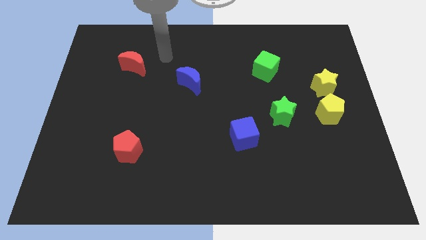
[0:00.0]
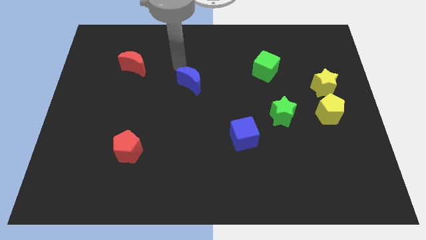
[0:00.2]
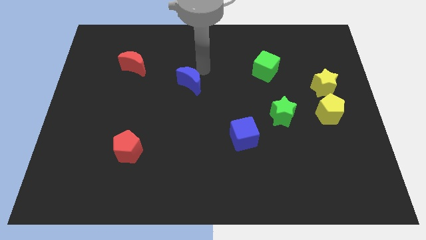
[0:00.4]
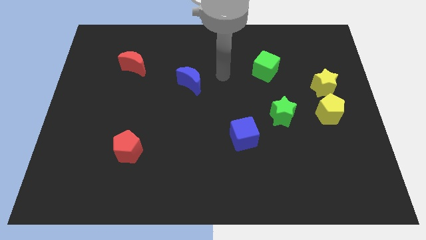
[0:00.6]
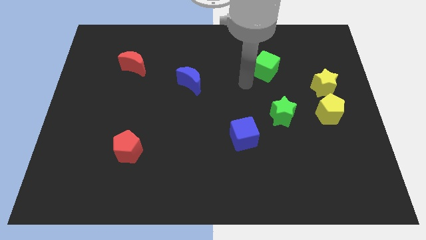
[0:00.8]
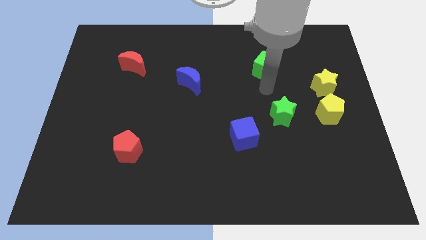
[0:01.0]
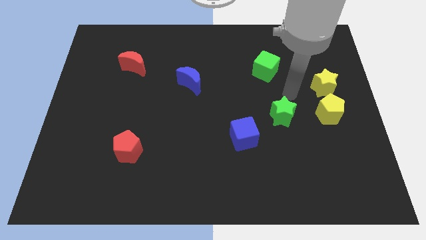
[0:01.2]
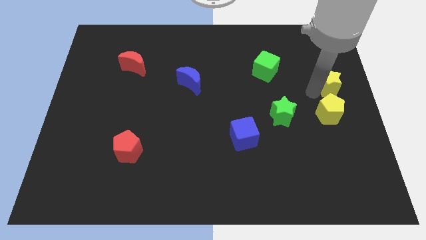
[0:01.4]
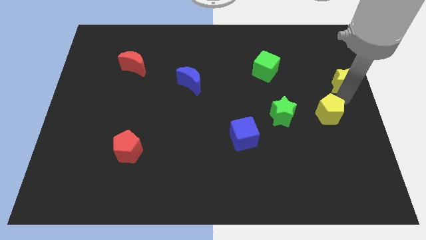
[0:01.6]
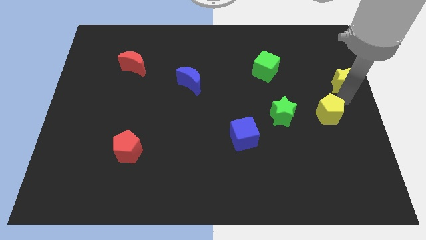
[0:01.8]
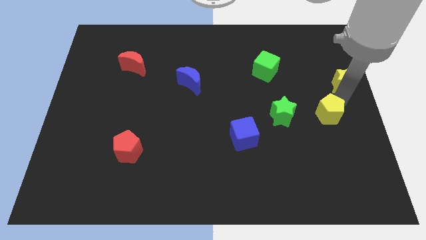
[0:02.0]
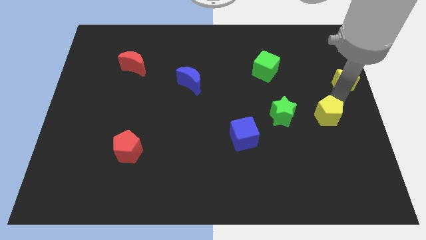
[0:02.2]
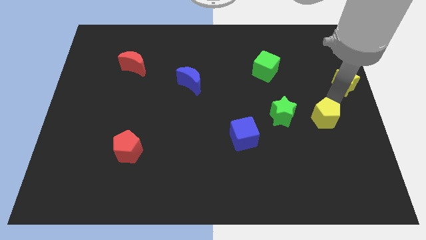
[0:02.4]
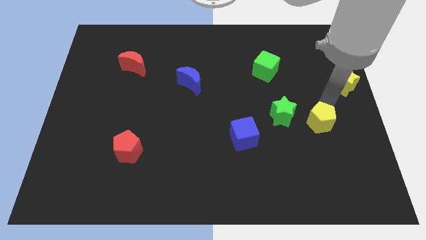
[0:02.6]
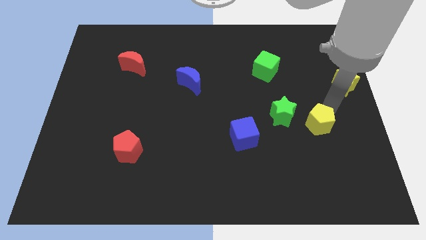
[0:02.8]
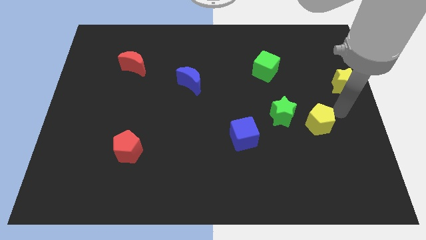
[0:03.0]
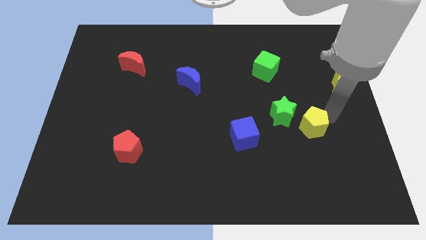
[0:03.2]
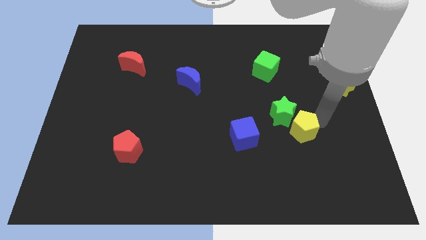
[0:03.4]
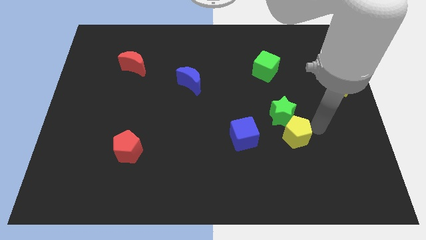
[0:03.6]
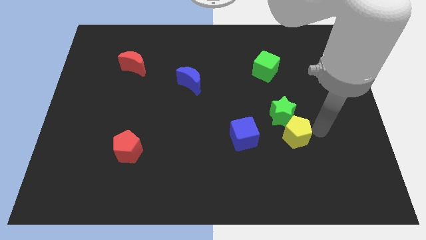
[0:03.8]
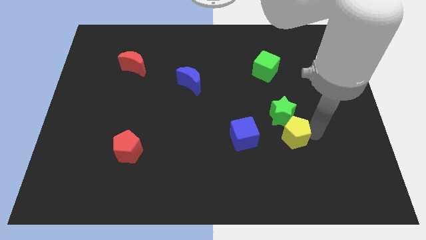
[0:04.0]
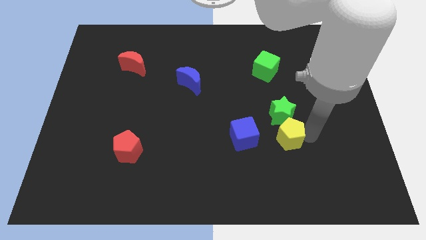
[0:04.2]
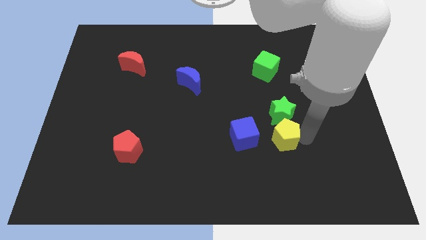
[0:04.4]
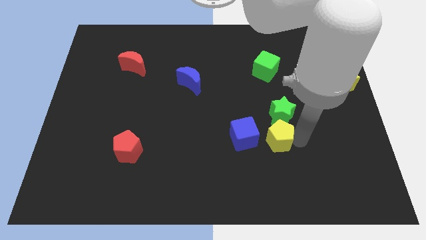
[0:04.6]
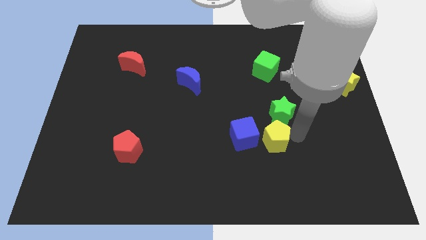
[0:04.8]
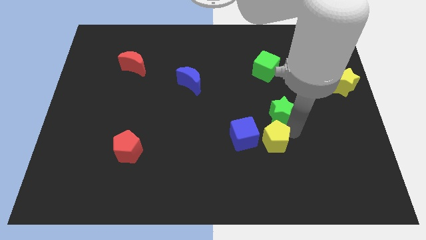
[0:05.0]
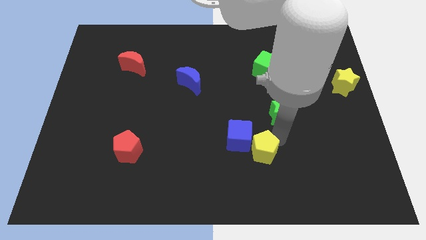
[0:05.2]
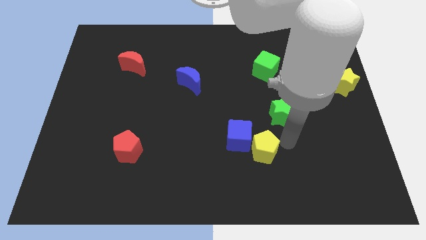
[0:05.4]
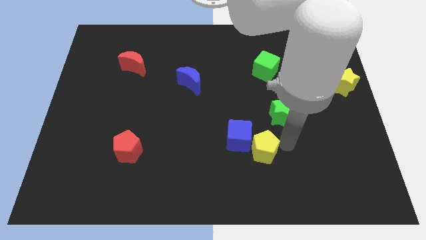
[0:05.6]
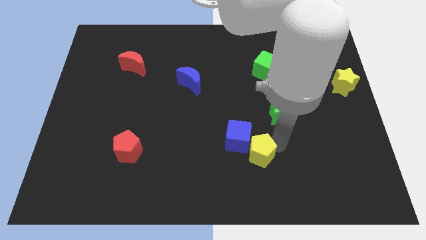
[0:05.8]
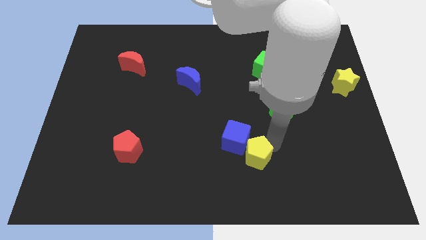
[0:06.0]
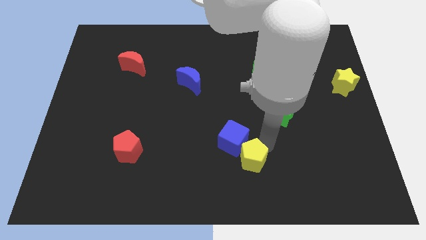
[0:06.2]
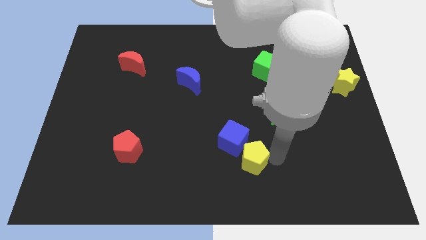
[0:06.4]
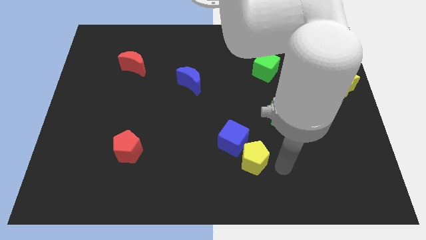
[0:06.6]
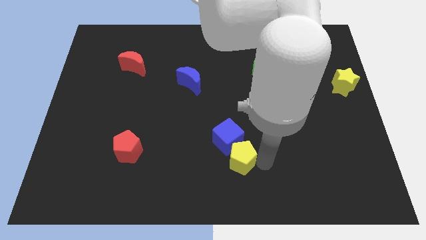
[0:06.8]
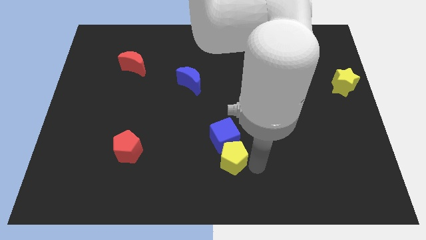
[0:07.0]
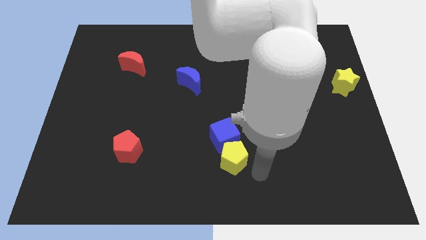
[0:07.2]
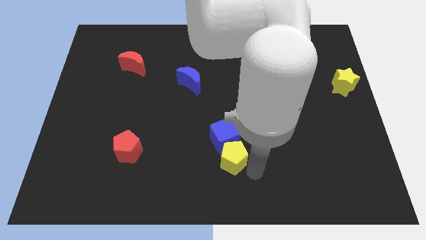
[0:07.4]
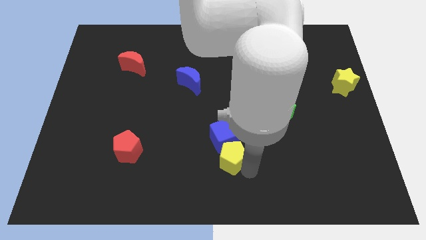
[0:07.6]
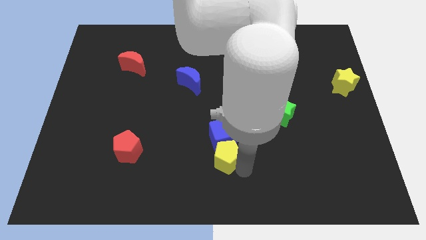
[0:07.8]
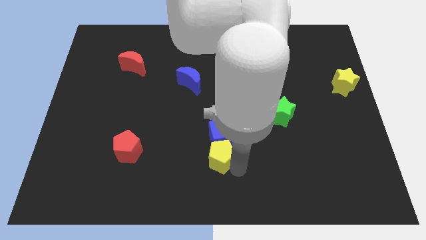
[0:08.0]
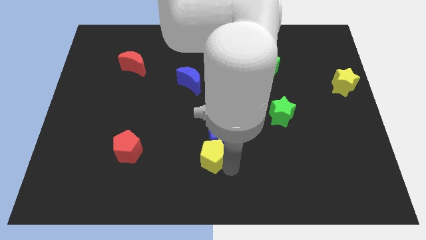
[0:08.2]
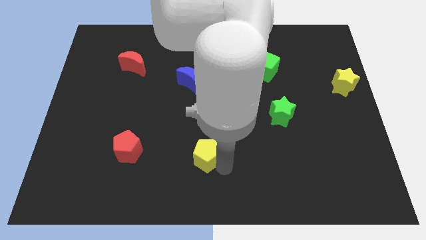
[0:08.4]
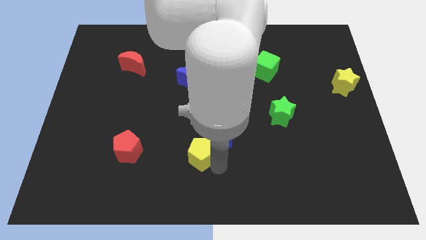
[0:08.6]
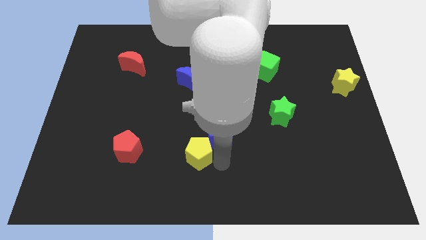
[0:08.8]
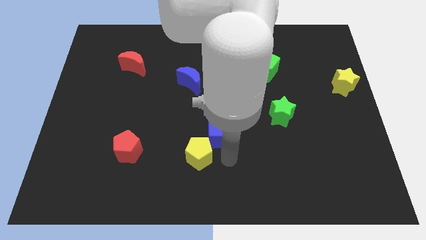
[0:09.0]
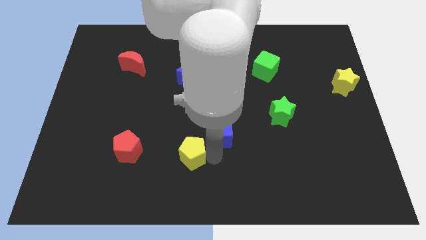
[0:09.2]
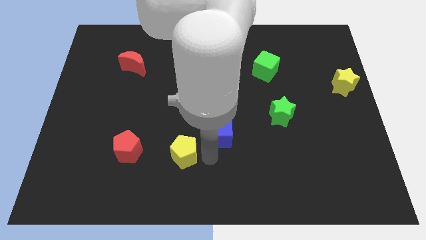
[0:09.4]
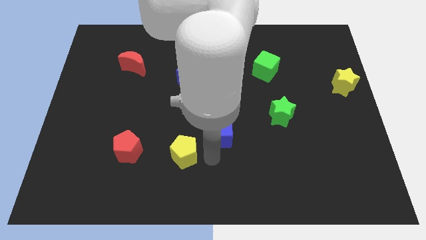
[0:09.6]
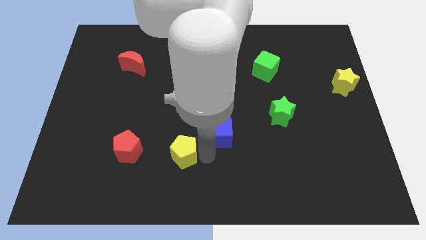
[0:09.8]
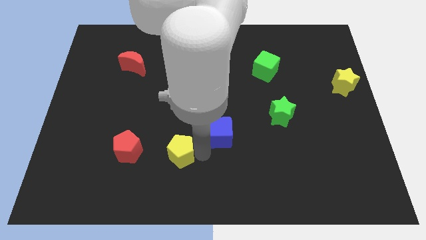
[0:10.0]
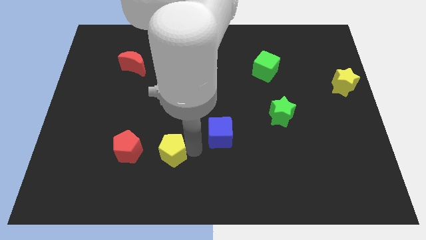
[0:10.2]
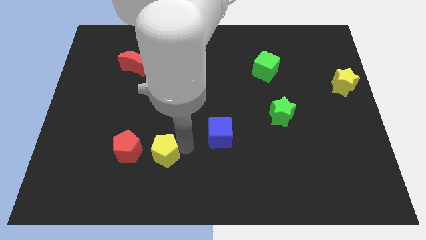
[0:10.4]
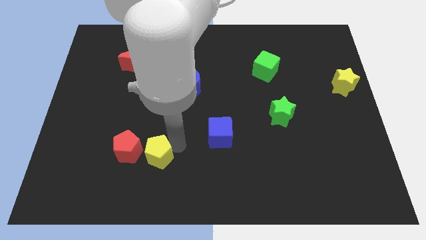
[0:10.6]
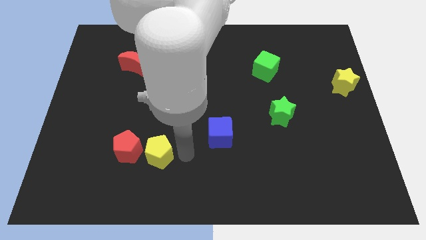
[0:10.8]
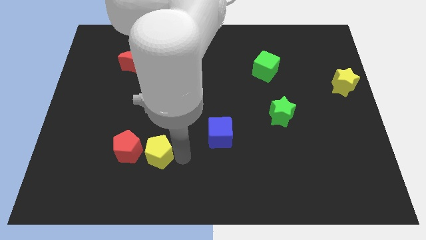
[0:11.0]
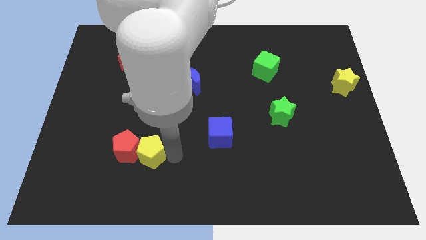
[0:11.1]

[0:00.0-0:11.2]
slide the yellow pentagon close to the red pentagon

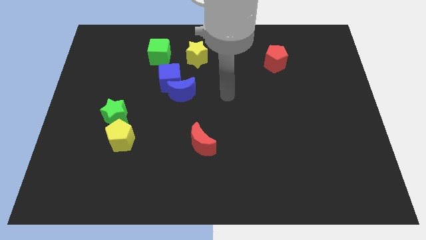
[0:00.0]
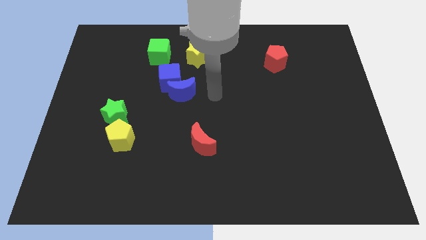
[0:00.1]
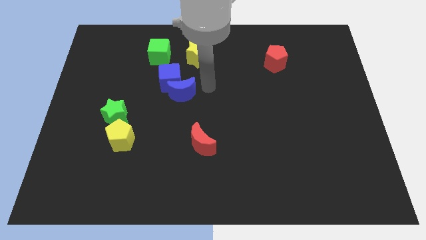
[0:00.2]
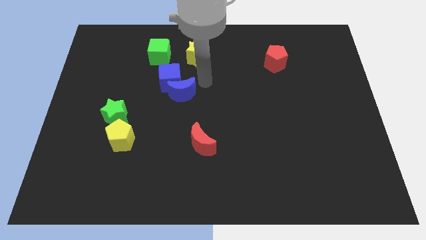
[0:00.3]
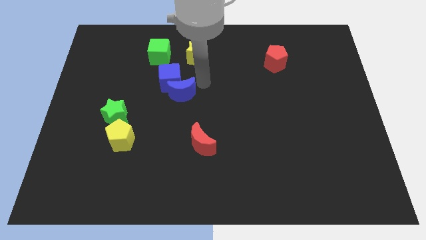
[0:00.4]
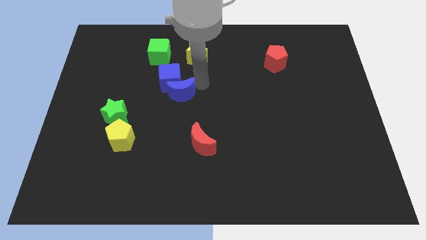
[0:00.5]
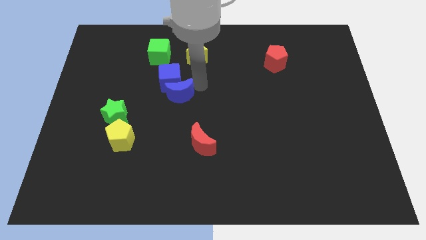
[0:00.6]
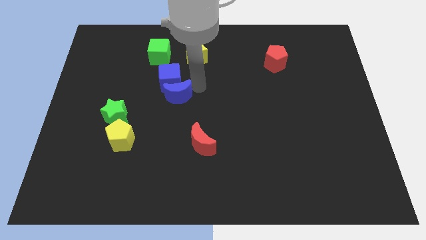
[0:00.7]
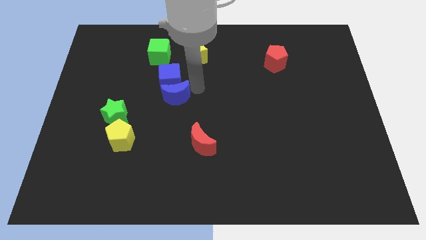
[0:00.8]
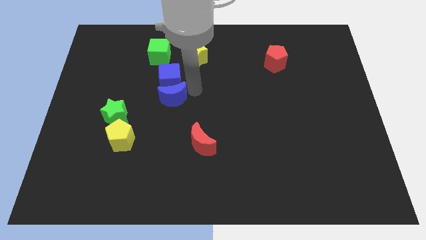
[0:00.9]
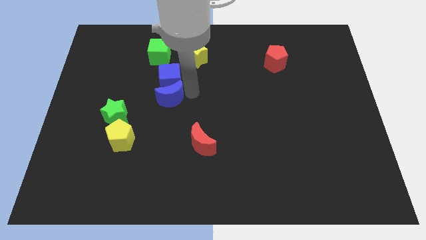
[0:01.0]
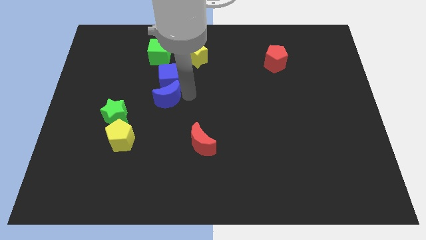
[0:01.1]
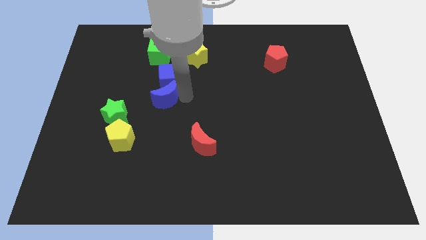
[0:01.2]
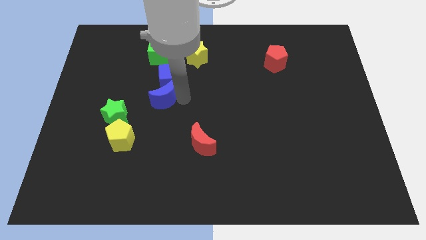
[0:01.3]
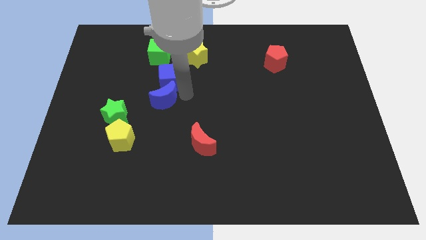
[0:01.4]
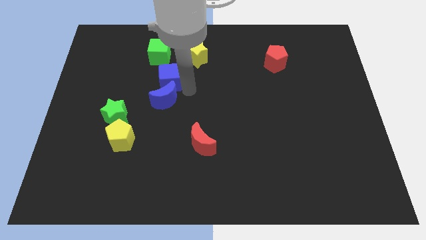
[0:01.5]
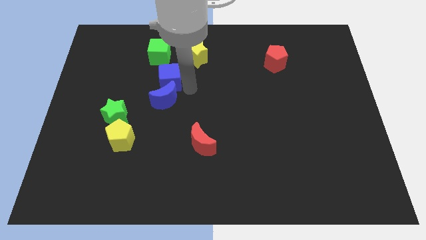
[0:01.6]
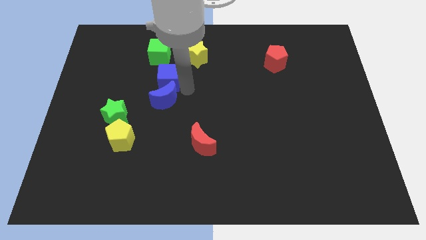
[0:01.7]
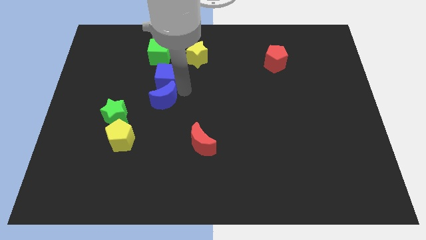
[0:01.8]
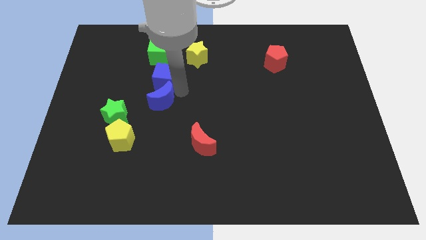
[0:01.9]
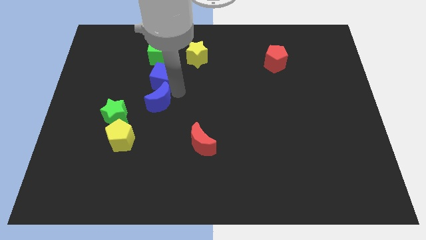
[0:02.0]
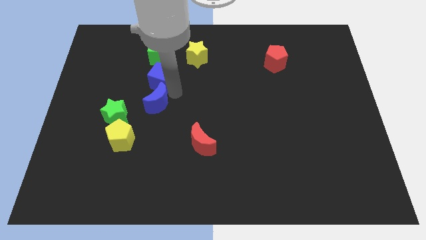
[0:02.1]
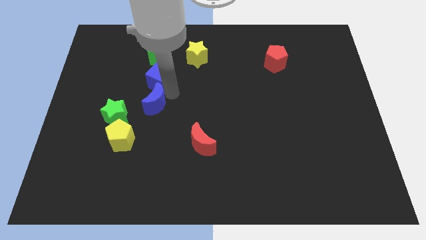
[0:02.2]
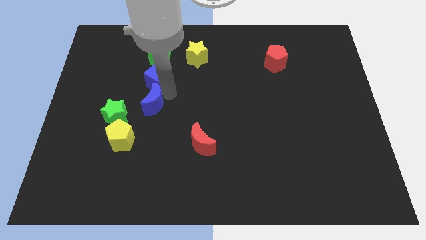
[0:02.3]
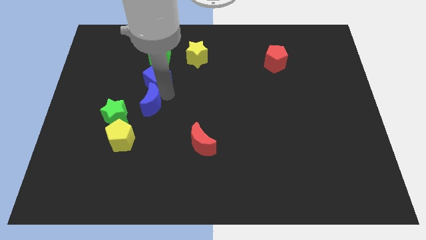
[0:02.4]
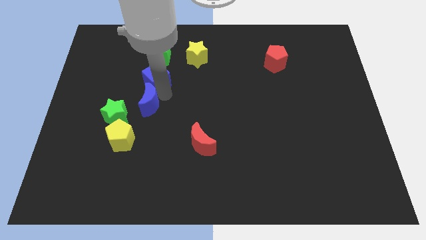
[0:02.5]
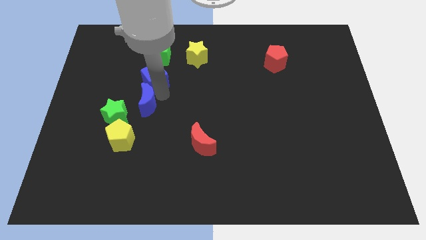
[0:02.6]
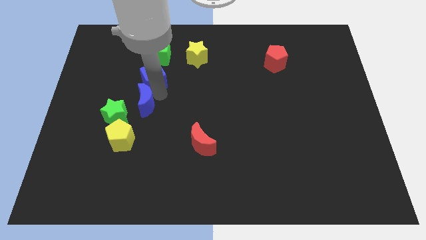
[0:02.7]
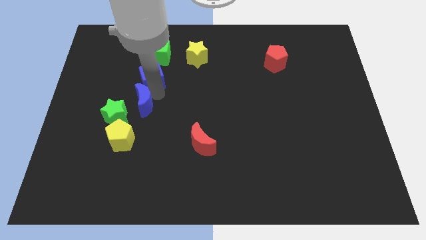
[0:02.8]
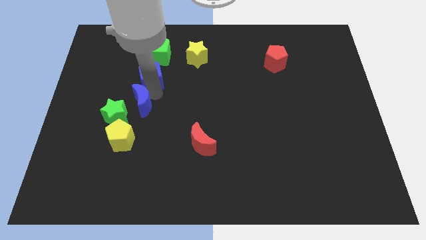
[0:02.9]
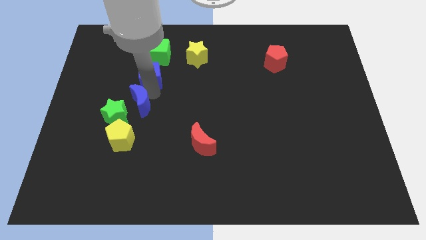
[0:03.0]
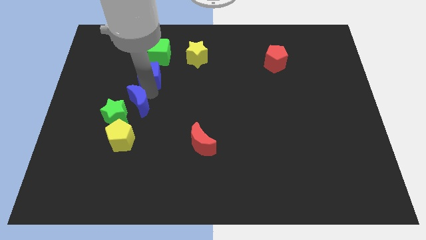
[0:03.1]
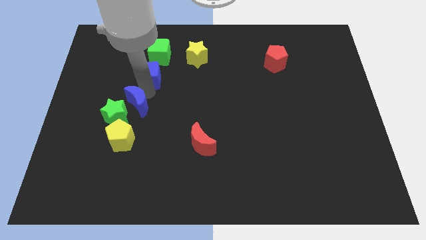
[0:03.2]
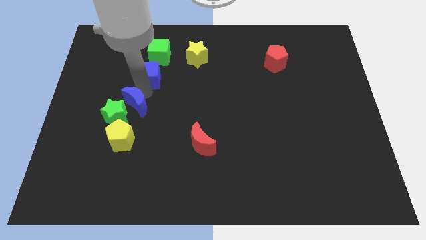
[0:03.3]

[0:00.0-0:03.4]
move the blue moon next to the green star
